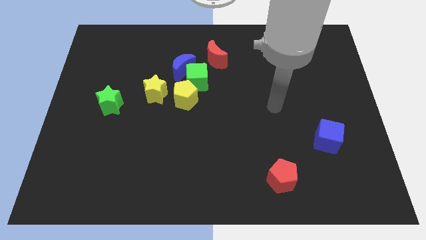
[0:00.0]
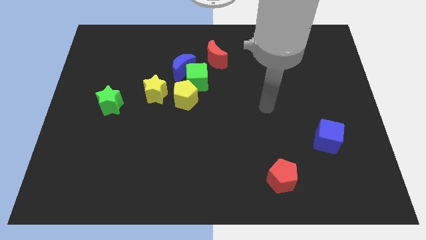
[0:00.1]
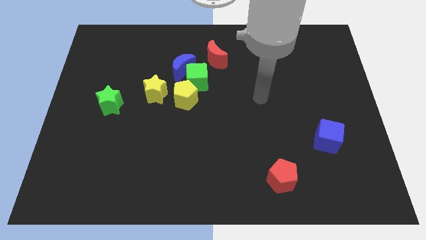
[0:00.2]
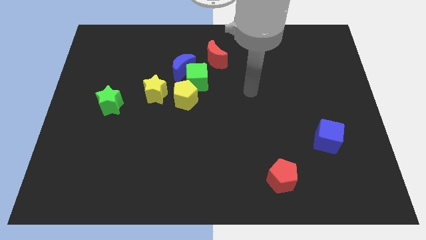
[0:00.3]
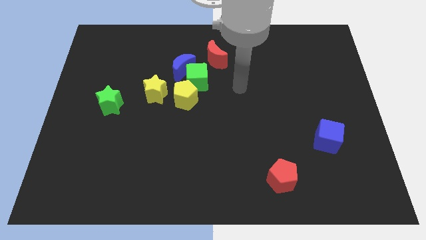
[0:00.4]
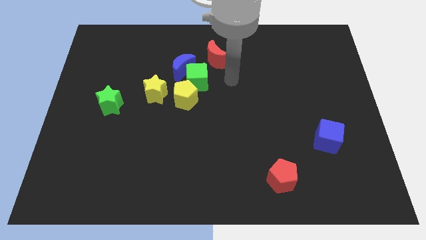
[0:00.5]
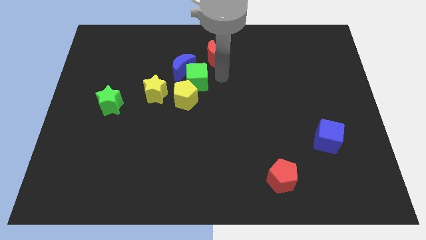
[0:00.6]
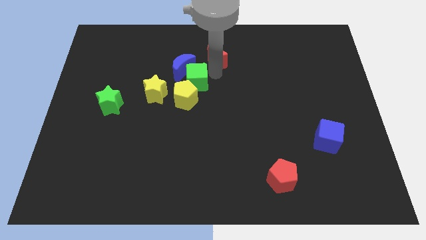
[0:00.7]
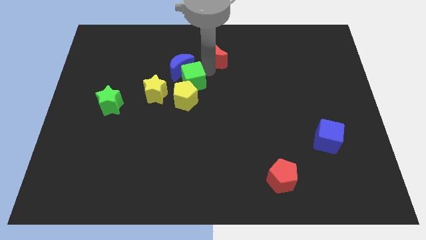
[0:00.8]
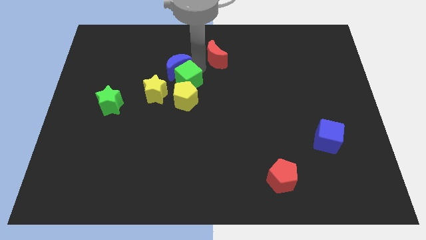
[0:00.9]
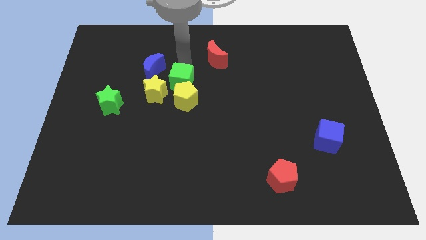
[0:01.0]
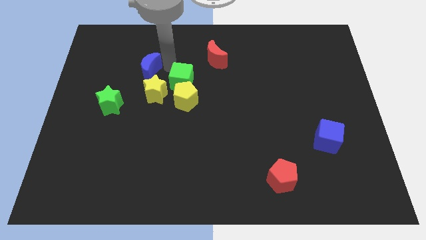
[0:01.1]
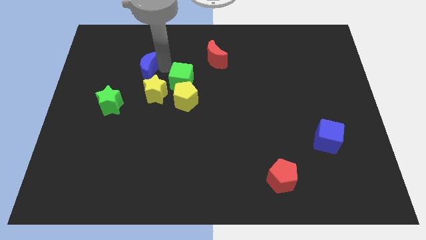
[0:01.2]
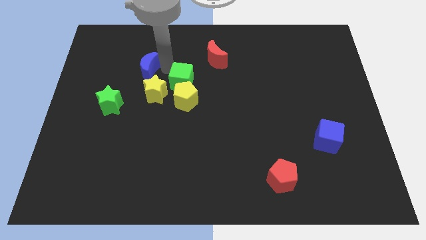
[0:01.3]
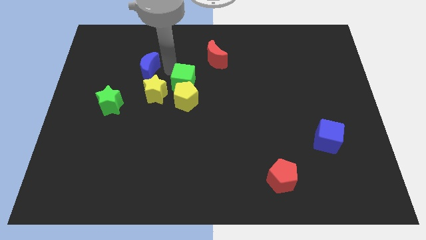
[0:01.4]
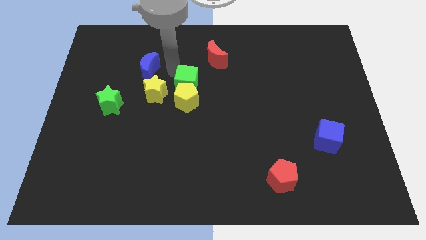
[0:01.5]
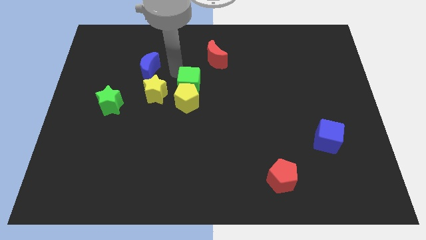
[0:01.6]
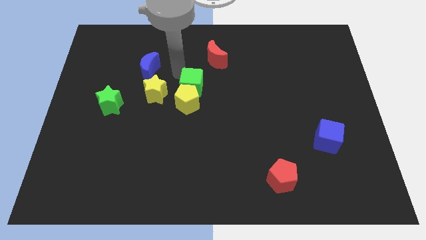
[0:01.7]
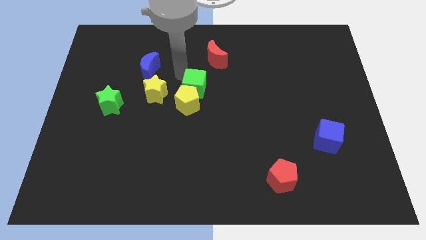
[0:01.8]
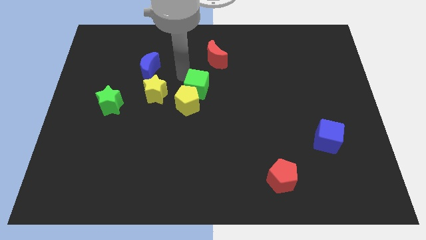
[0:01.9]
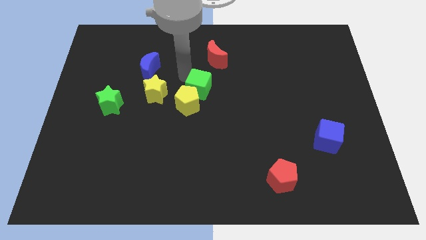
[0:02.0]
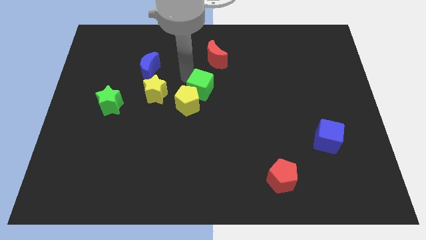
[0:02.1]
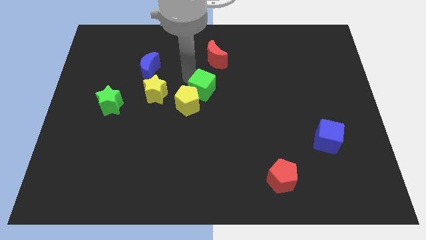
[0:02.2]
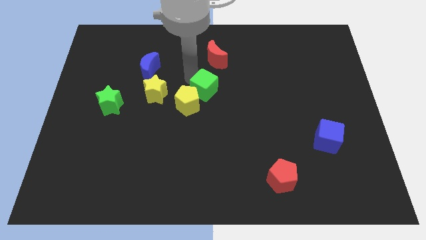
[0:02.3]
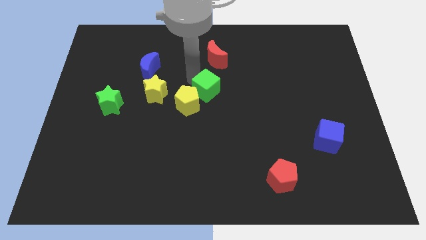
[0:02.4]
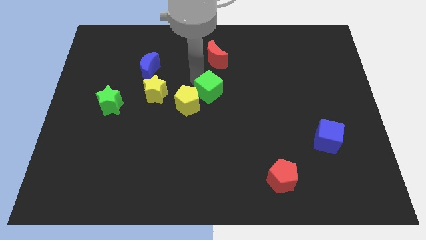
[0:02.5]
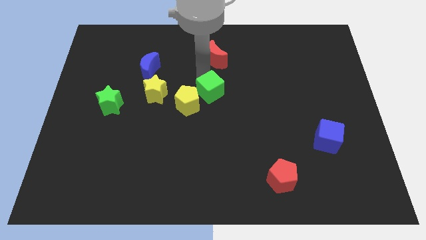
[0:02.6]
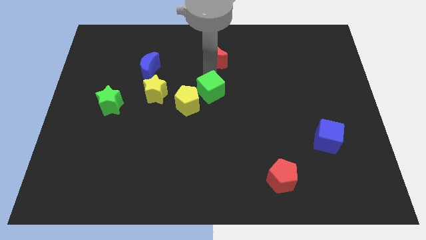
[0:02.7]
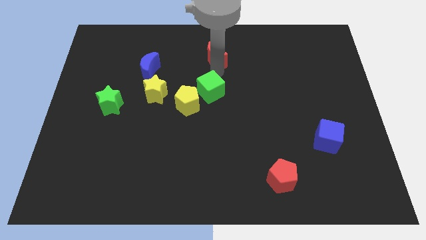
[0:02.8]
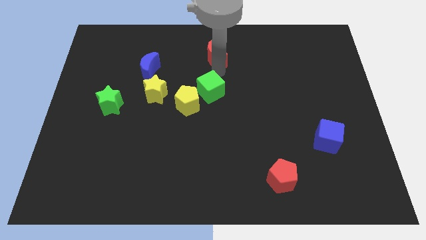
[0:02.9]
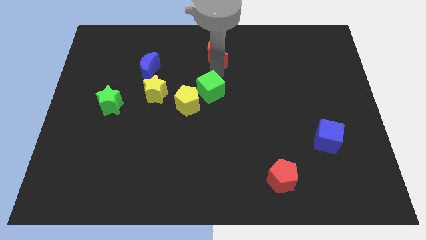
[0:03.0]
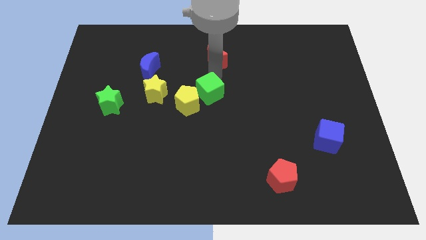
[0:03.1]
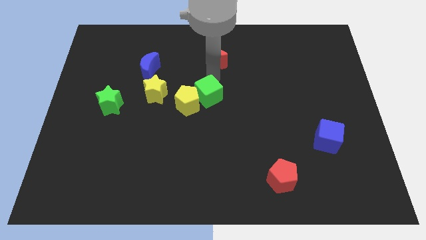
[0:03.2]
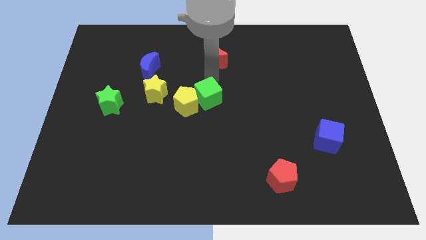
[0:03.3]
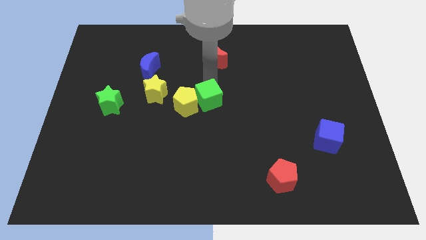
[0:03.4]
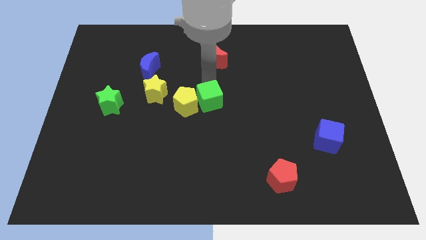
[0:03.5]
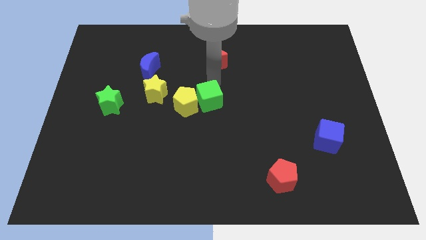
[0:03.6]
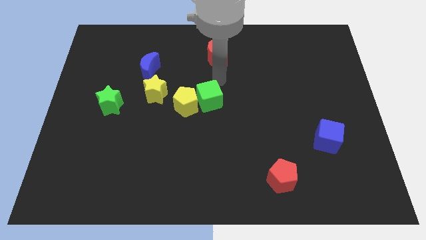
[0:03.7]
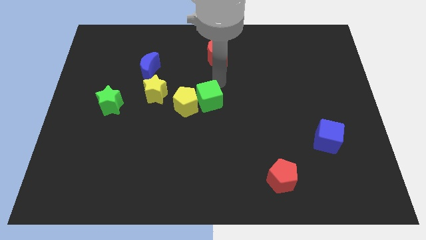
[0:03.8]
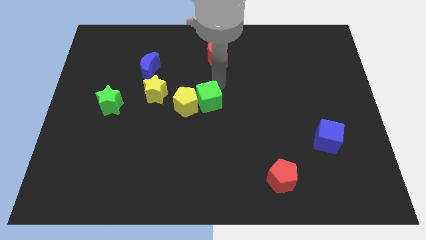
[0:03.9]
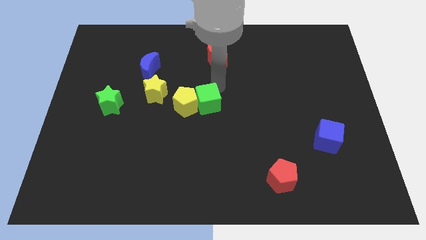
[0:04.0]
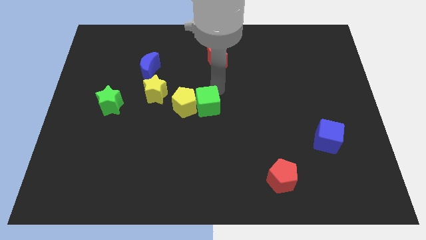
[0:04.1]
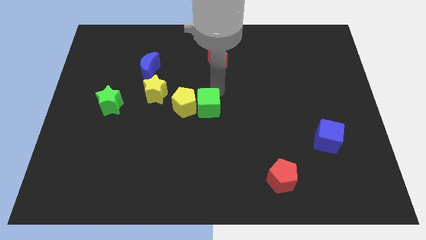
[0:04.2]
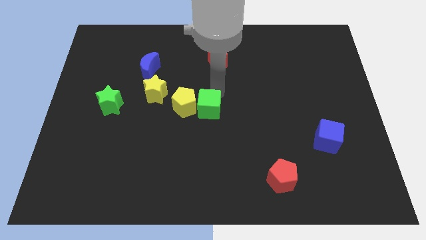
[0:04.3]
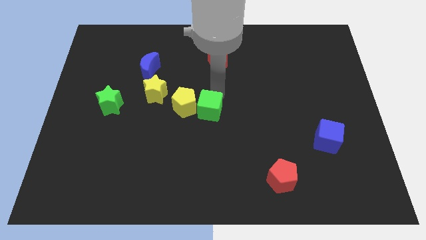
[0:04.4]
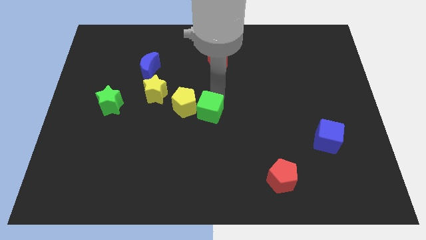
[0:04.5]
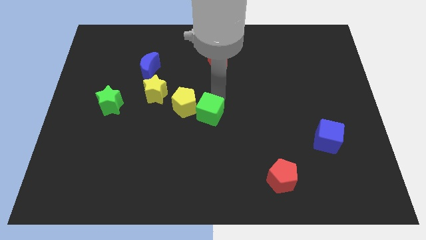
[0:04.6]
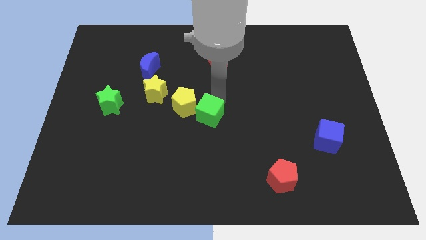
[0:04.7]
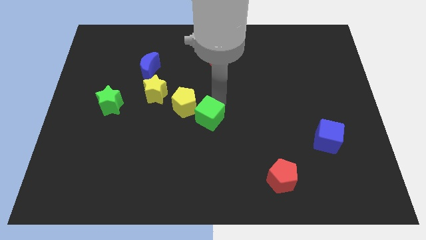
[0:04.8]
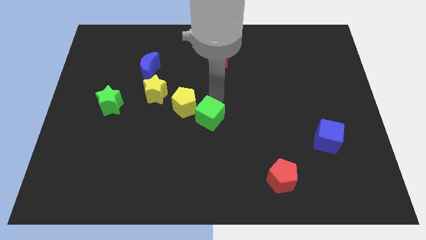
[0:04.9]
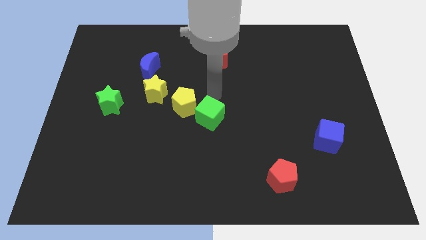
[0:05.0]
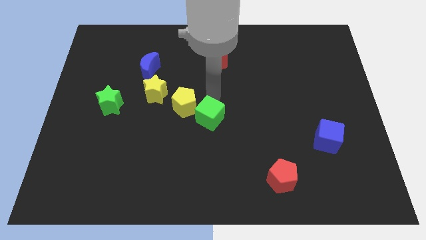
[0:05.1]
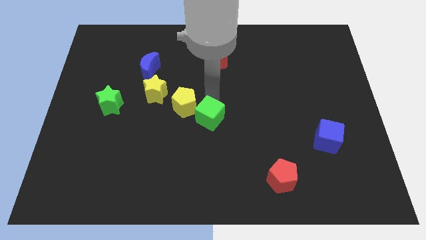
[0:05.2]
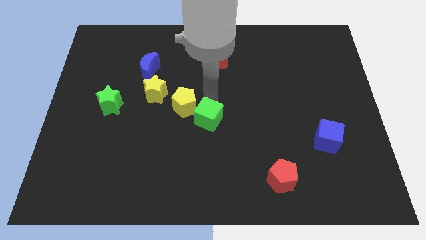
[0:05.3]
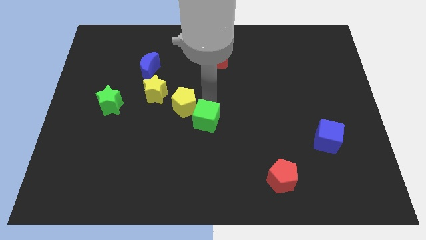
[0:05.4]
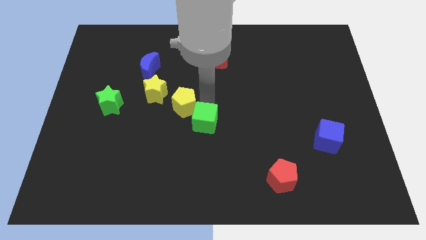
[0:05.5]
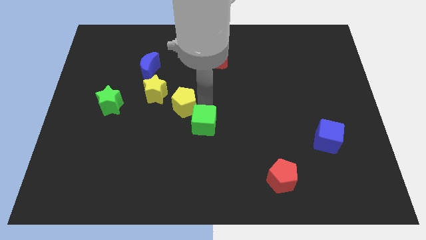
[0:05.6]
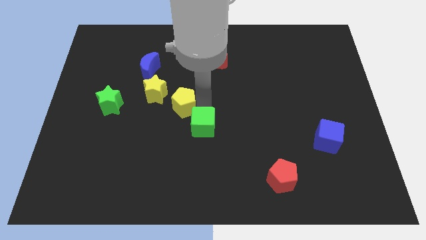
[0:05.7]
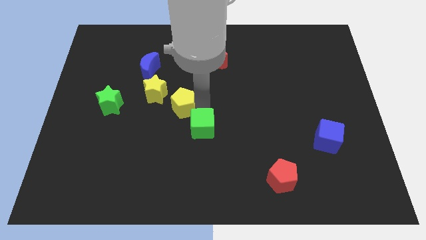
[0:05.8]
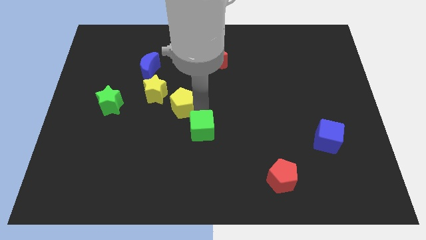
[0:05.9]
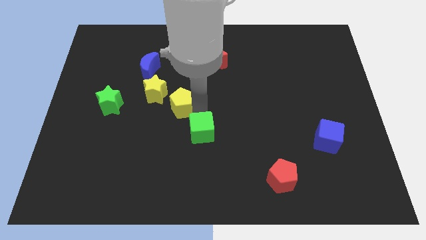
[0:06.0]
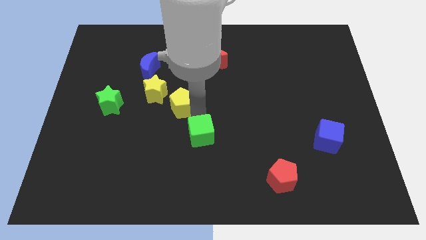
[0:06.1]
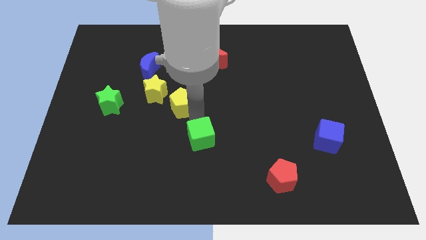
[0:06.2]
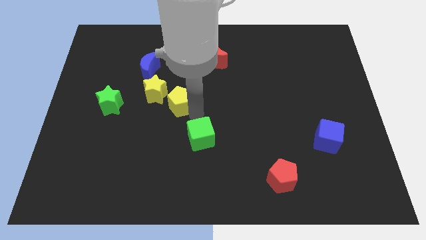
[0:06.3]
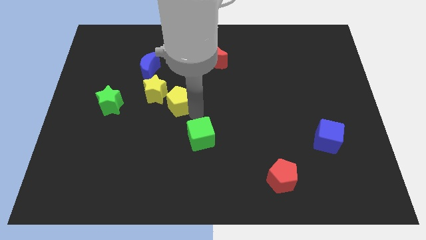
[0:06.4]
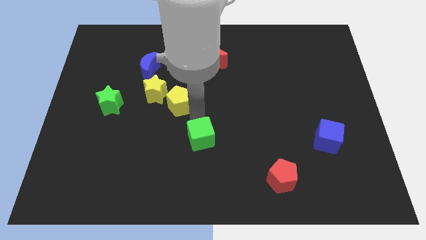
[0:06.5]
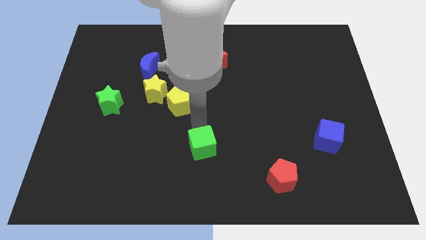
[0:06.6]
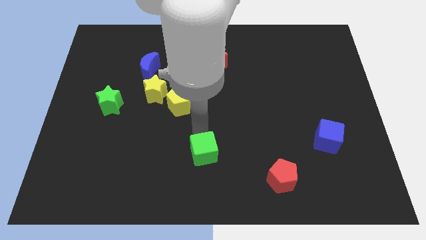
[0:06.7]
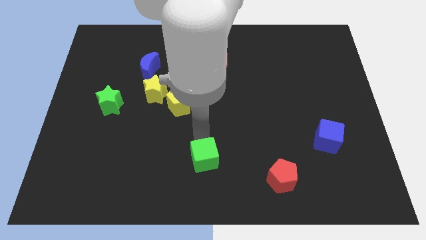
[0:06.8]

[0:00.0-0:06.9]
move the green cube to the bottom side
